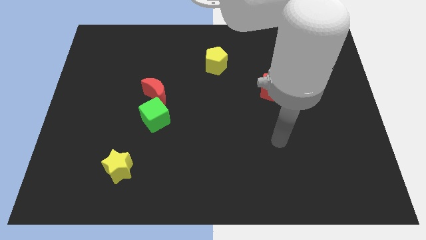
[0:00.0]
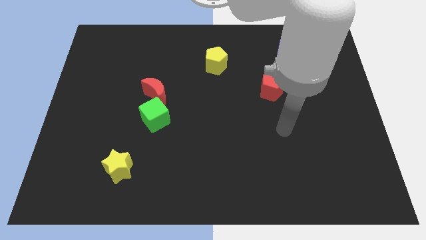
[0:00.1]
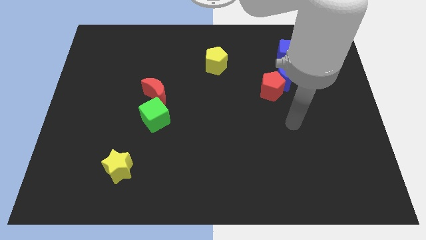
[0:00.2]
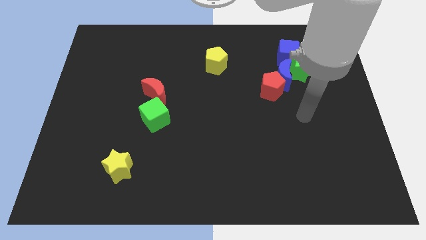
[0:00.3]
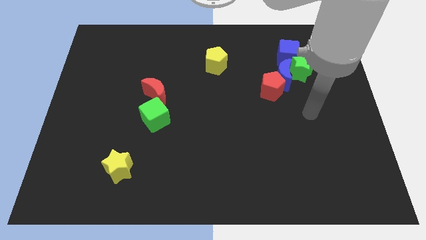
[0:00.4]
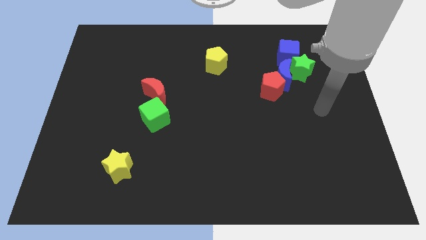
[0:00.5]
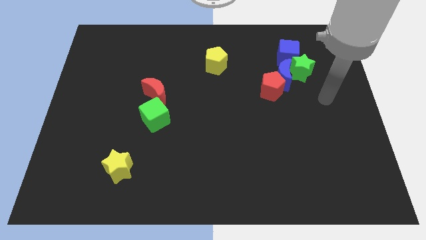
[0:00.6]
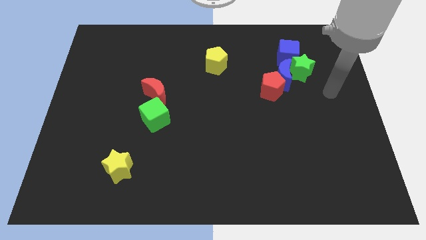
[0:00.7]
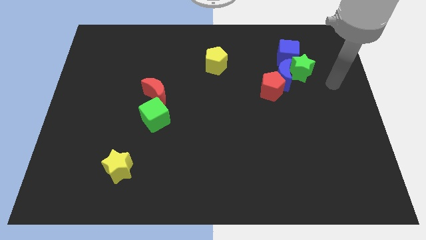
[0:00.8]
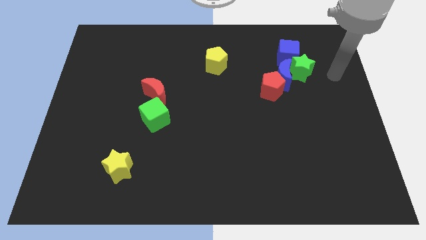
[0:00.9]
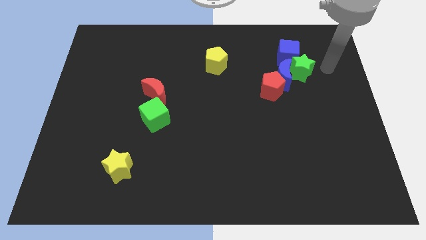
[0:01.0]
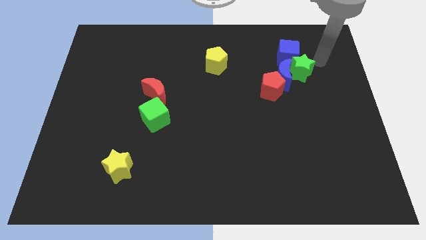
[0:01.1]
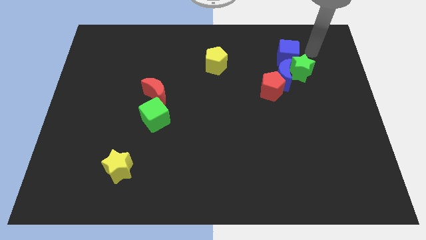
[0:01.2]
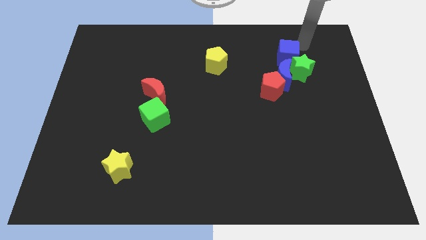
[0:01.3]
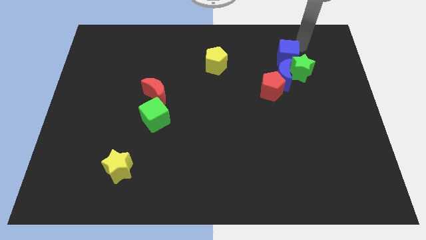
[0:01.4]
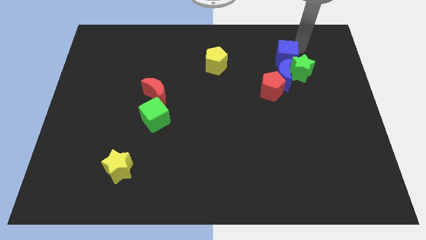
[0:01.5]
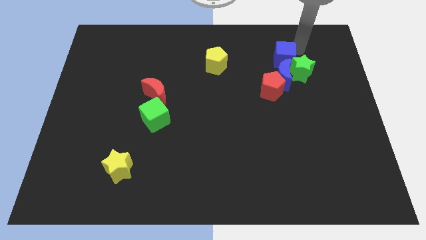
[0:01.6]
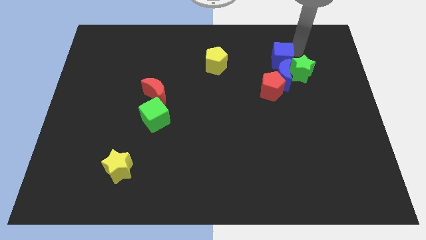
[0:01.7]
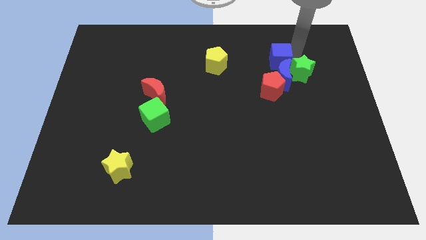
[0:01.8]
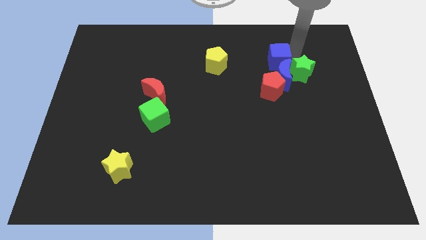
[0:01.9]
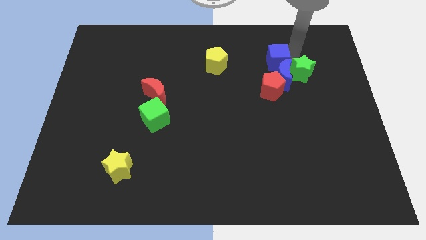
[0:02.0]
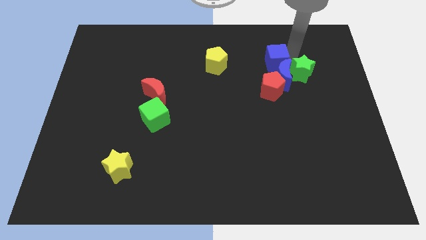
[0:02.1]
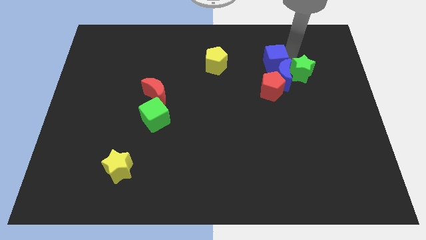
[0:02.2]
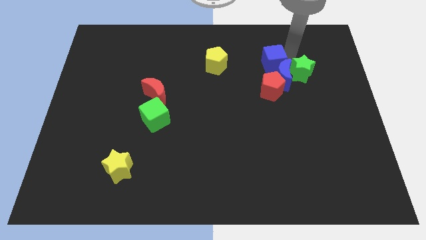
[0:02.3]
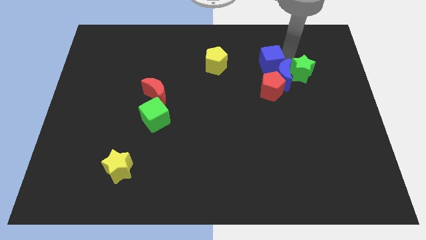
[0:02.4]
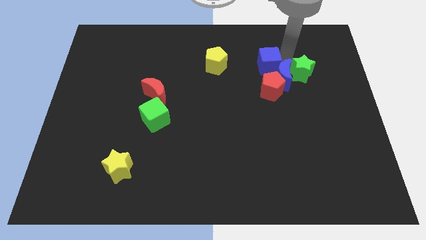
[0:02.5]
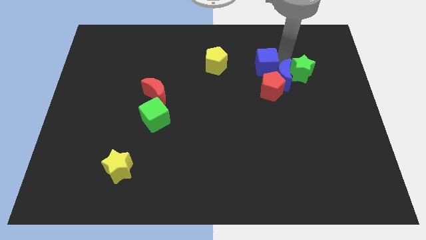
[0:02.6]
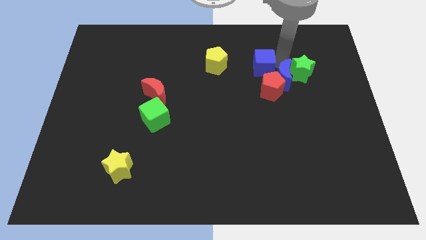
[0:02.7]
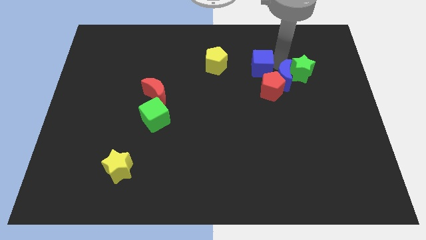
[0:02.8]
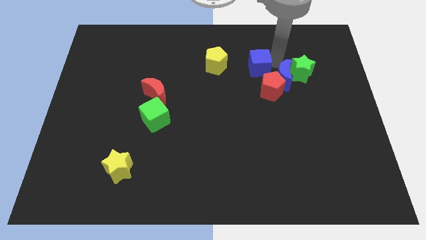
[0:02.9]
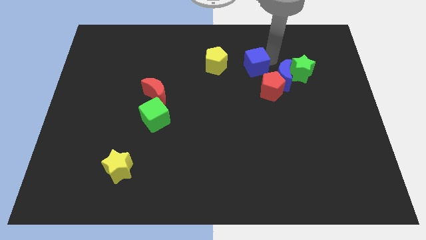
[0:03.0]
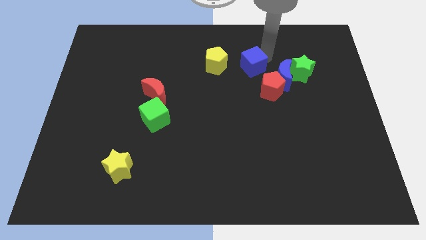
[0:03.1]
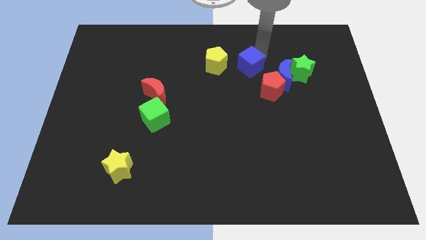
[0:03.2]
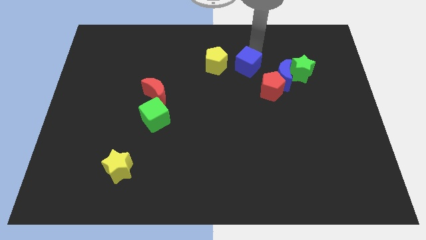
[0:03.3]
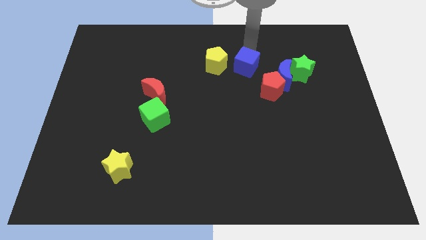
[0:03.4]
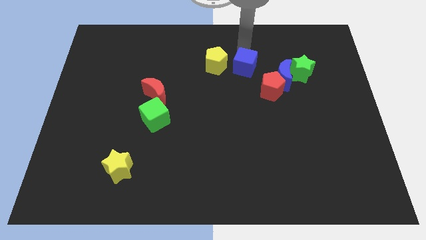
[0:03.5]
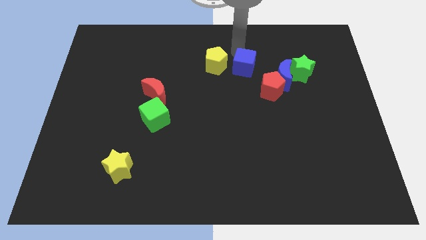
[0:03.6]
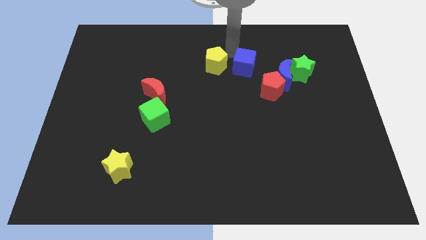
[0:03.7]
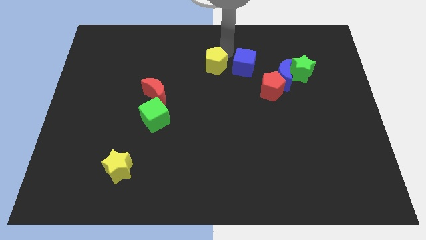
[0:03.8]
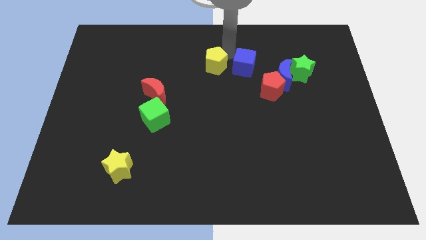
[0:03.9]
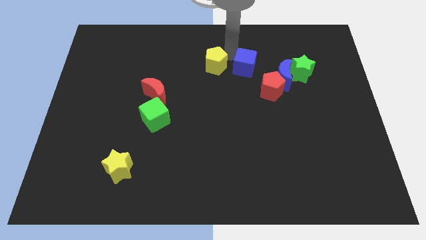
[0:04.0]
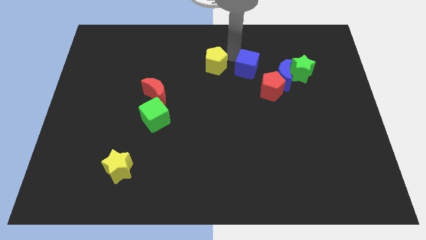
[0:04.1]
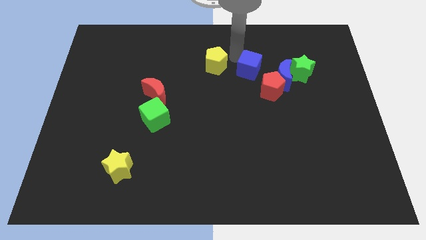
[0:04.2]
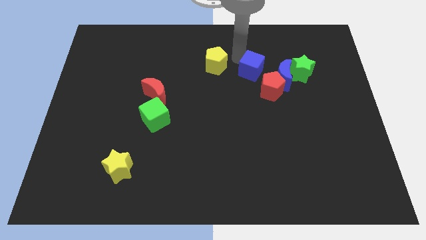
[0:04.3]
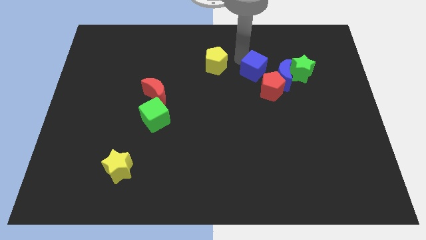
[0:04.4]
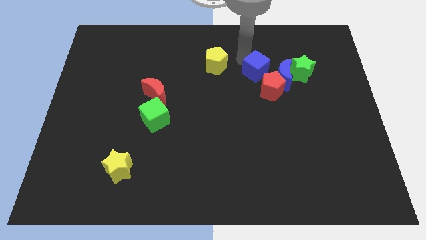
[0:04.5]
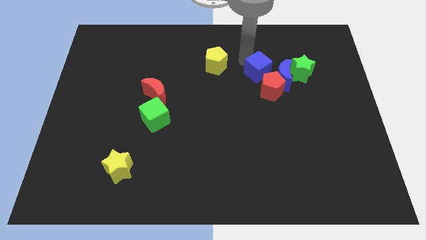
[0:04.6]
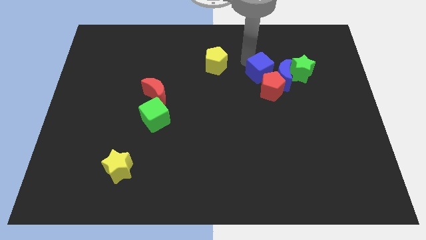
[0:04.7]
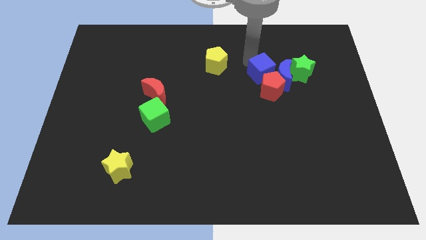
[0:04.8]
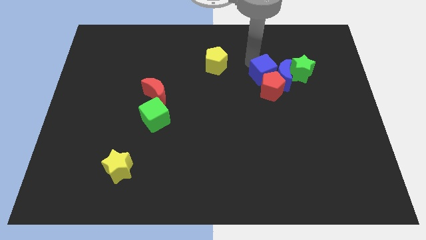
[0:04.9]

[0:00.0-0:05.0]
put the blue cube towards the red pentagon

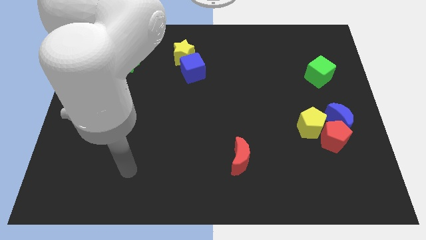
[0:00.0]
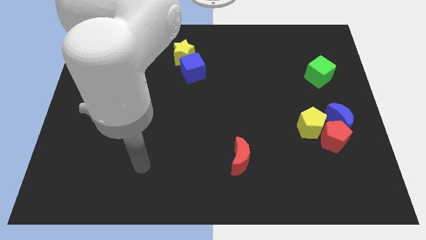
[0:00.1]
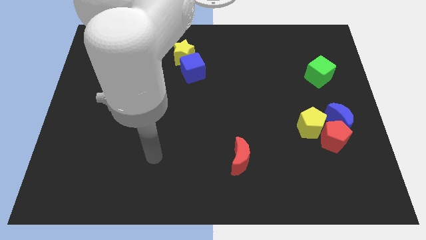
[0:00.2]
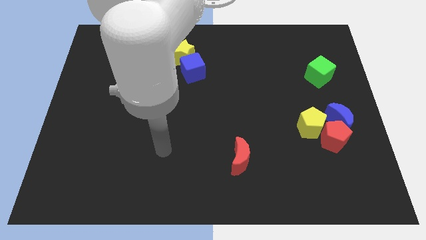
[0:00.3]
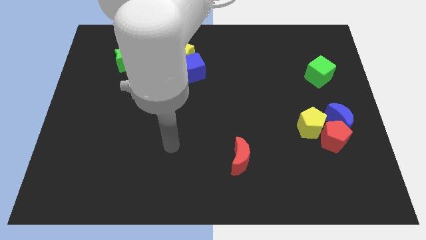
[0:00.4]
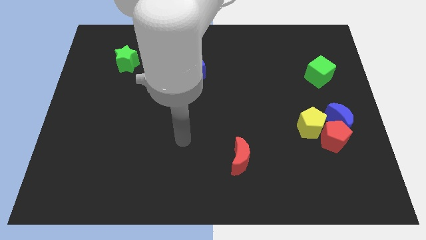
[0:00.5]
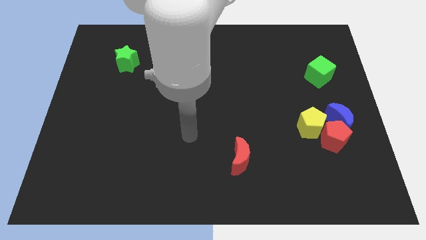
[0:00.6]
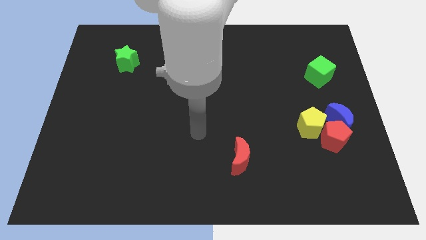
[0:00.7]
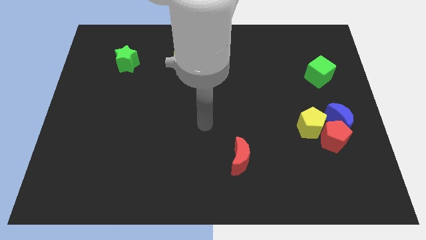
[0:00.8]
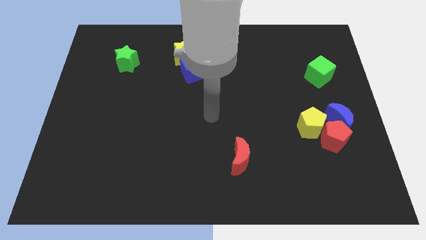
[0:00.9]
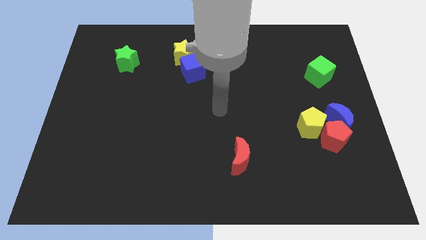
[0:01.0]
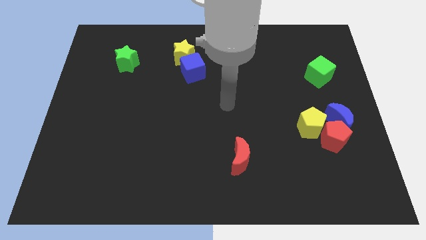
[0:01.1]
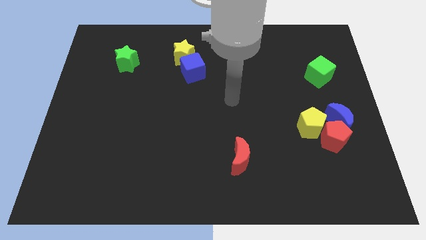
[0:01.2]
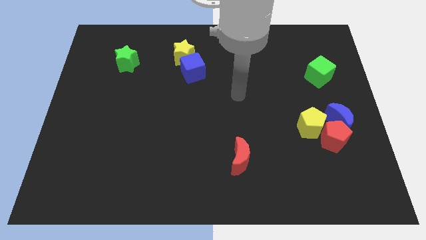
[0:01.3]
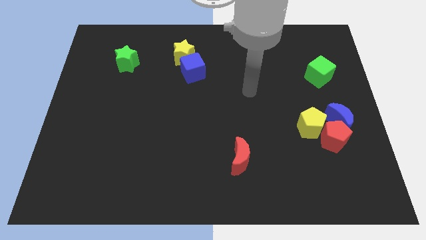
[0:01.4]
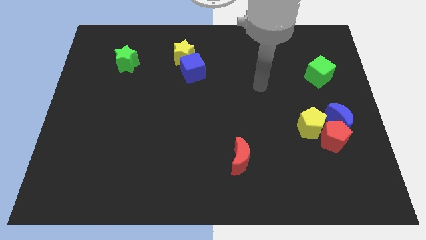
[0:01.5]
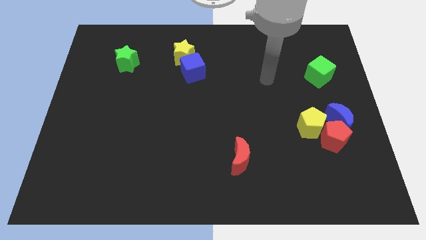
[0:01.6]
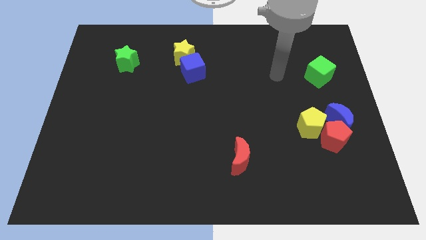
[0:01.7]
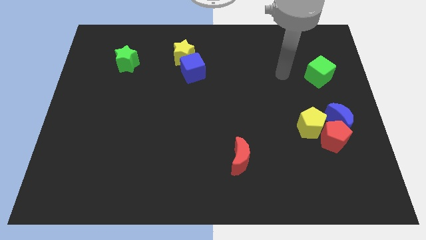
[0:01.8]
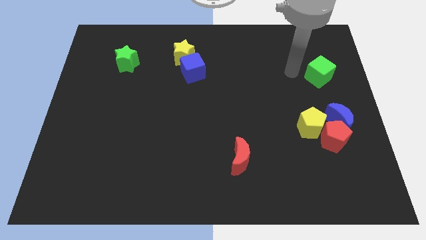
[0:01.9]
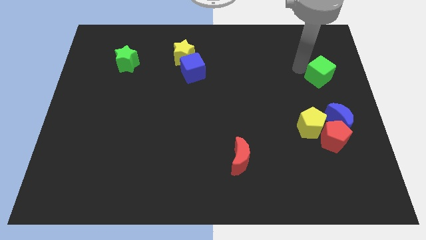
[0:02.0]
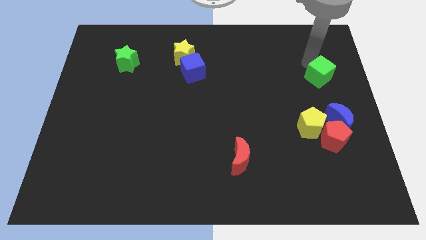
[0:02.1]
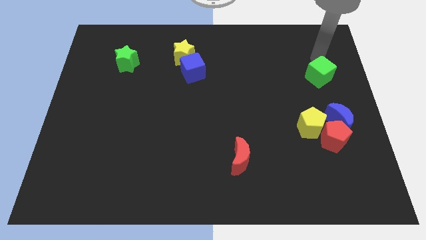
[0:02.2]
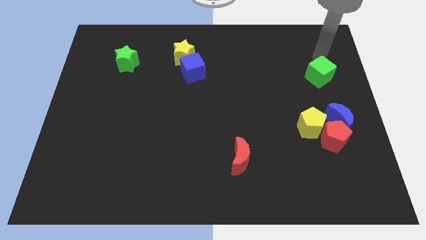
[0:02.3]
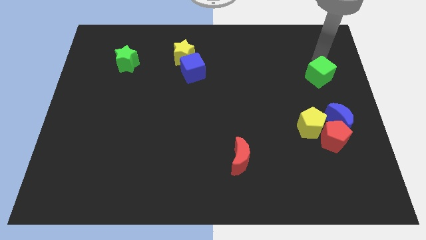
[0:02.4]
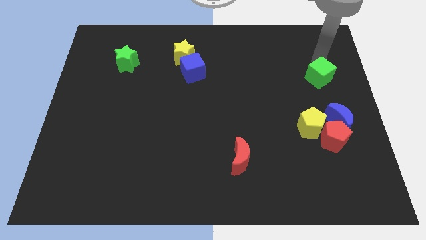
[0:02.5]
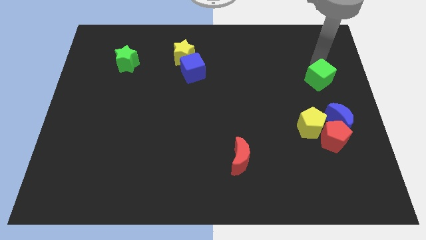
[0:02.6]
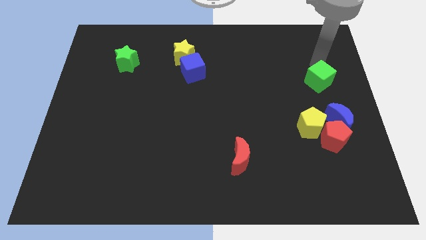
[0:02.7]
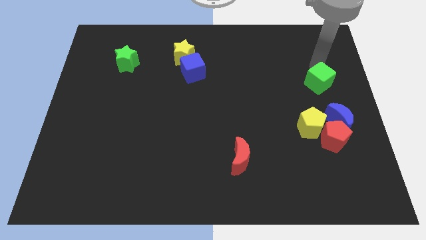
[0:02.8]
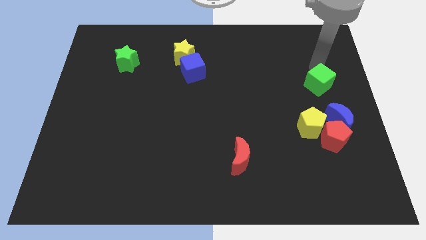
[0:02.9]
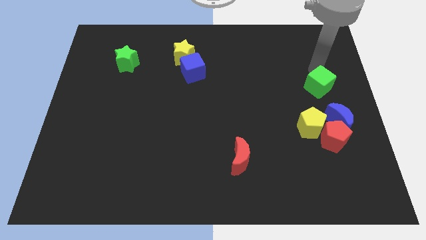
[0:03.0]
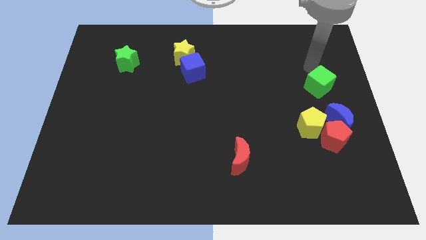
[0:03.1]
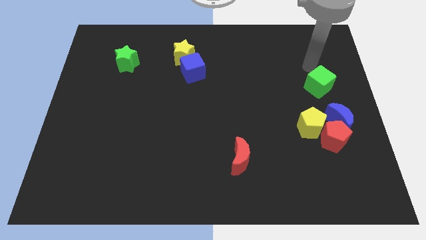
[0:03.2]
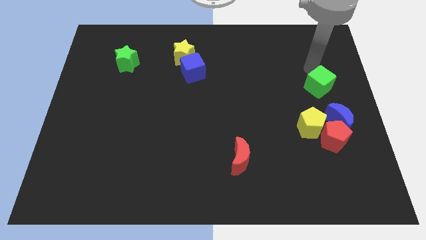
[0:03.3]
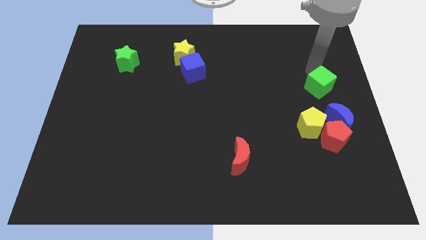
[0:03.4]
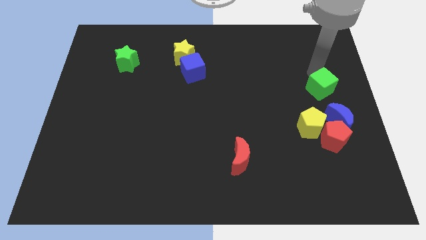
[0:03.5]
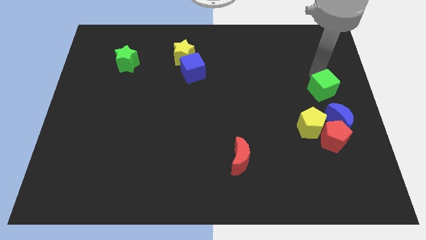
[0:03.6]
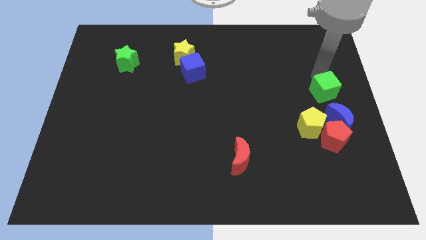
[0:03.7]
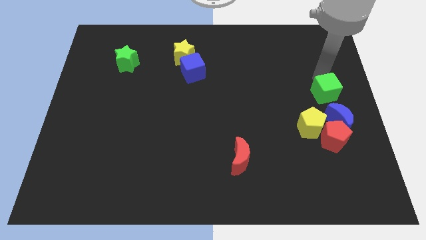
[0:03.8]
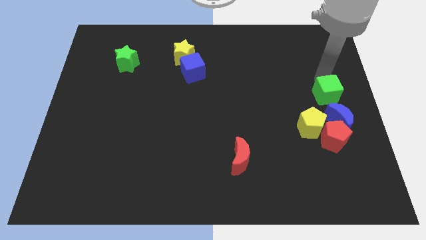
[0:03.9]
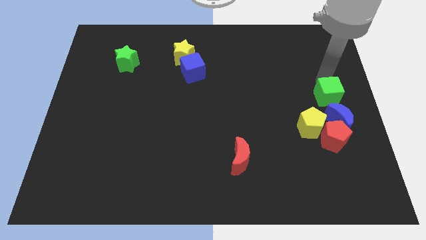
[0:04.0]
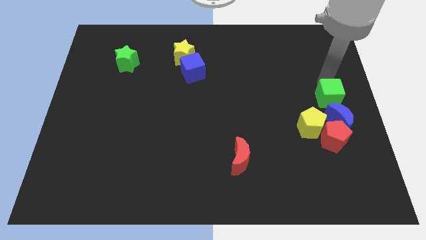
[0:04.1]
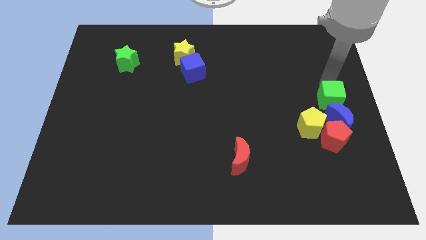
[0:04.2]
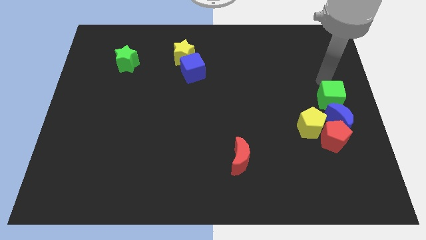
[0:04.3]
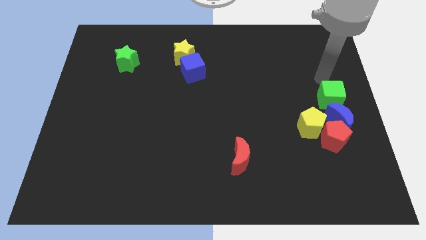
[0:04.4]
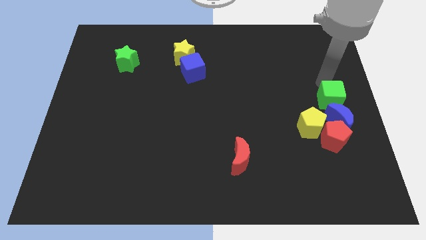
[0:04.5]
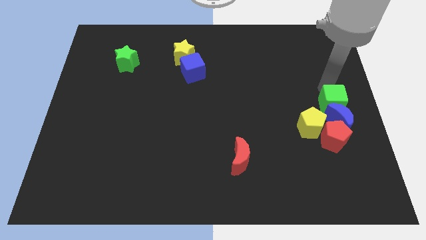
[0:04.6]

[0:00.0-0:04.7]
put the green cube next to the blue moon
